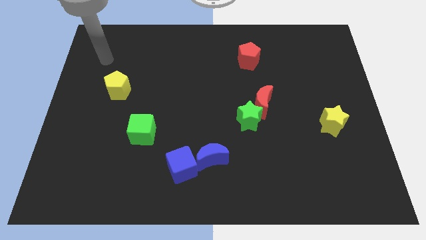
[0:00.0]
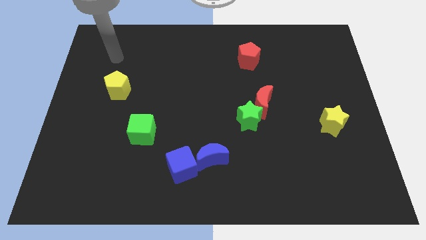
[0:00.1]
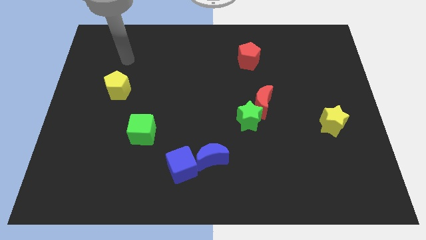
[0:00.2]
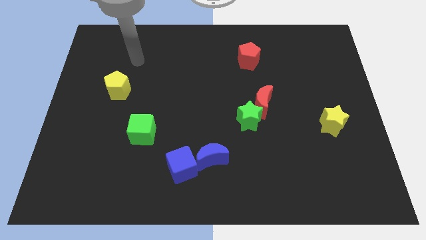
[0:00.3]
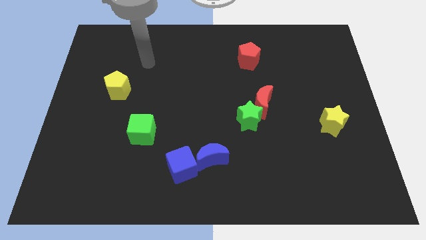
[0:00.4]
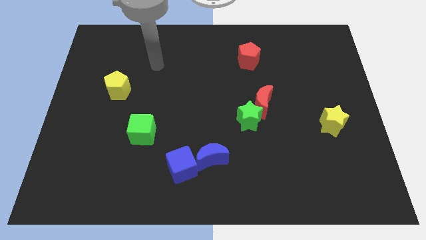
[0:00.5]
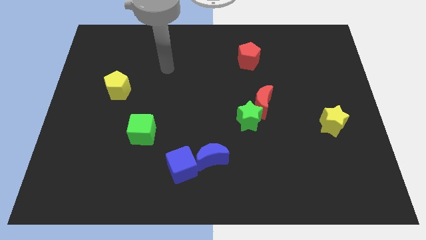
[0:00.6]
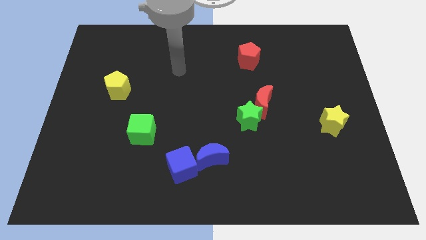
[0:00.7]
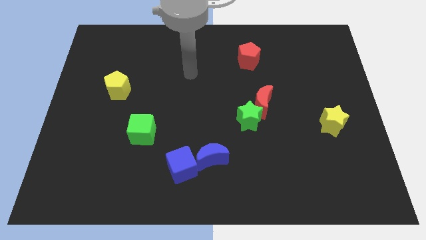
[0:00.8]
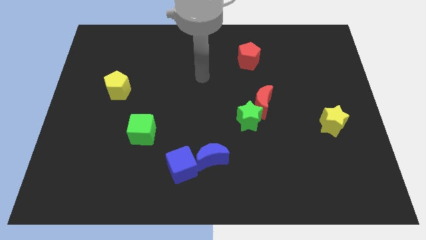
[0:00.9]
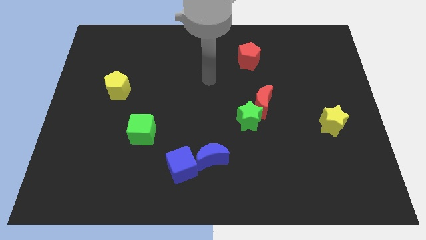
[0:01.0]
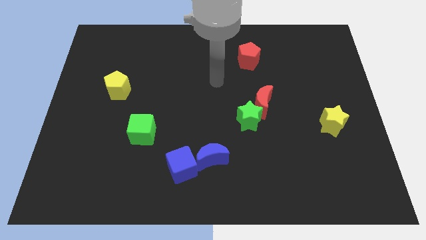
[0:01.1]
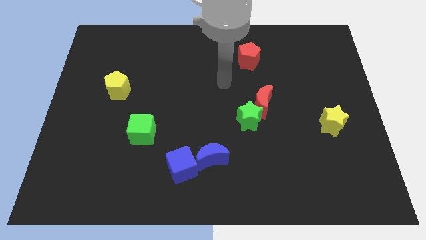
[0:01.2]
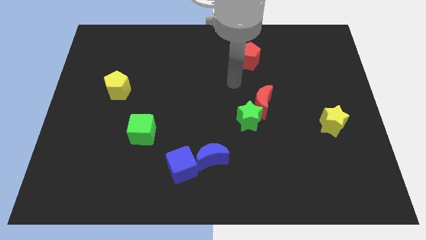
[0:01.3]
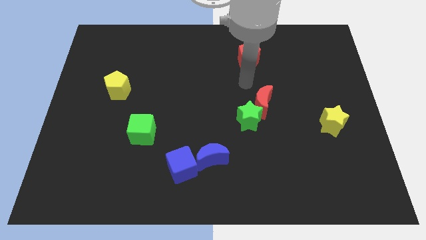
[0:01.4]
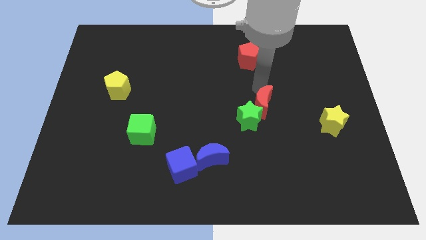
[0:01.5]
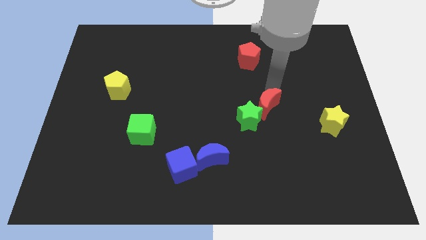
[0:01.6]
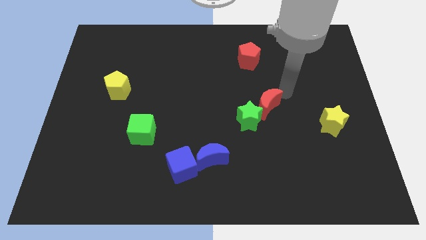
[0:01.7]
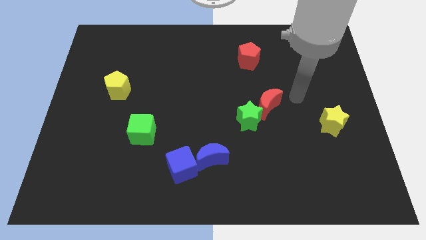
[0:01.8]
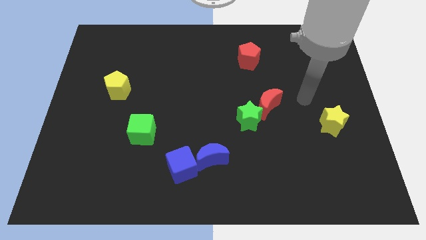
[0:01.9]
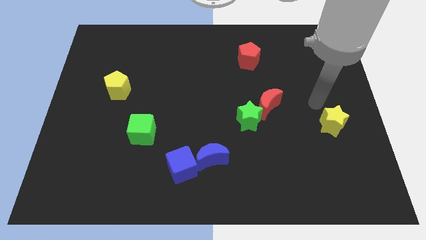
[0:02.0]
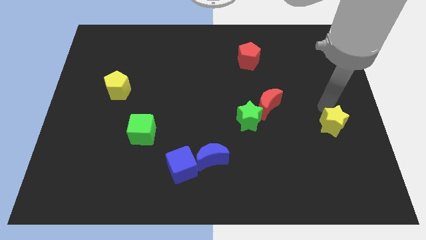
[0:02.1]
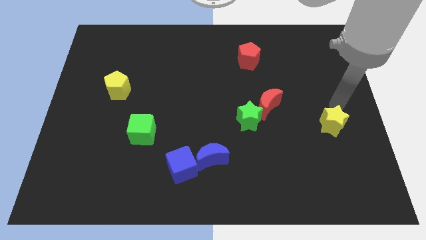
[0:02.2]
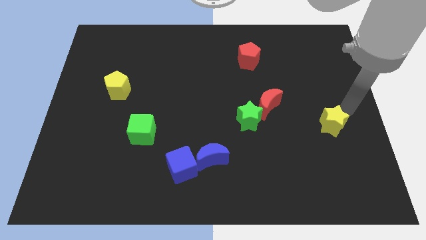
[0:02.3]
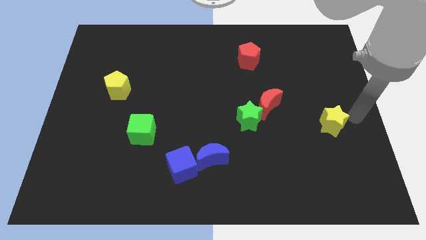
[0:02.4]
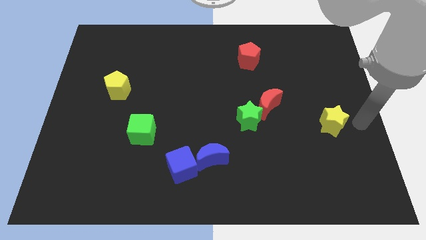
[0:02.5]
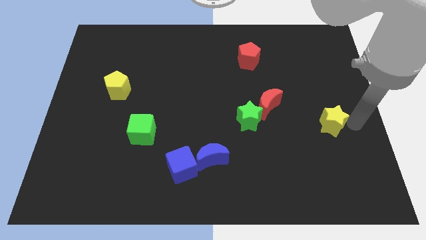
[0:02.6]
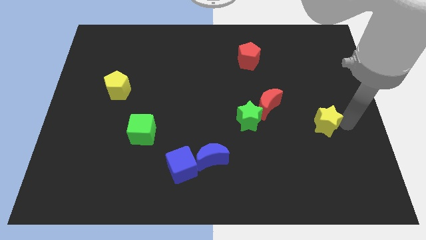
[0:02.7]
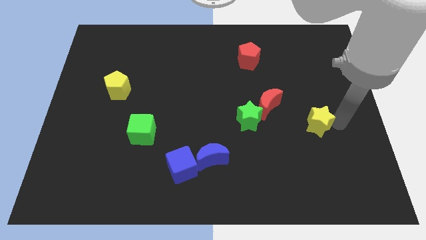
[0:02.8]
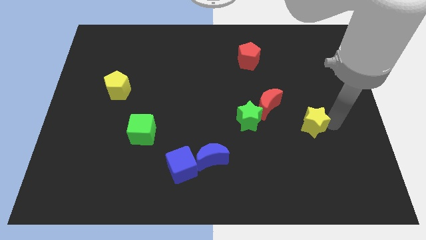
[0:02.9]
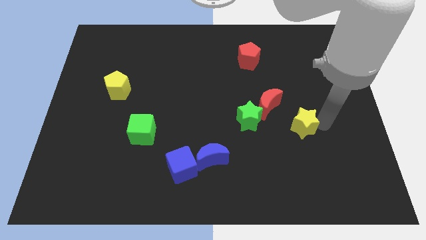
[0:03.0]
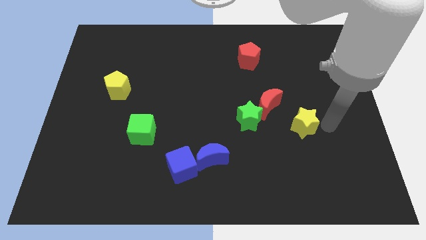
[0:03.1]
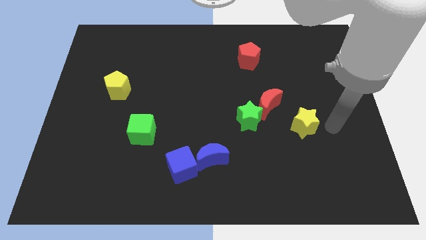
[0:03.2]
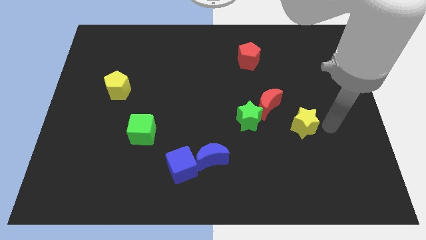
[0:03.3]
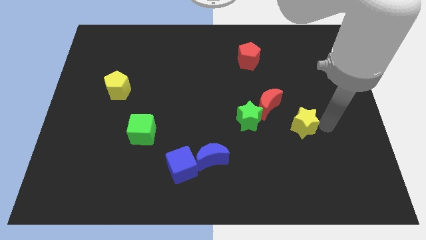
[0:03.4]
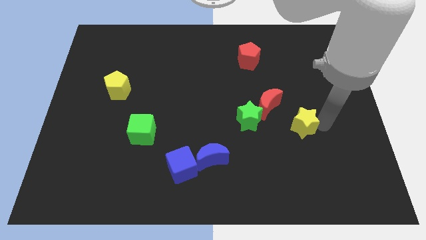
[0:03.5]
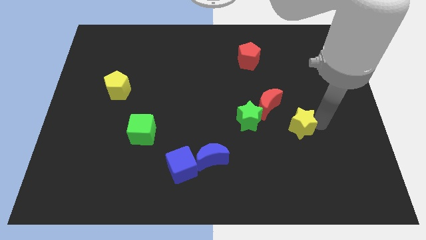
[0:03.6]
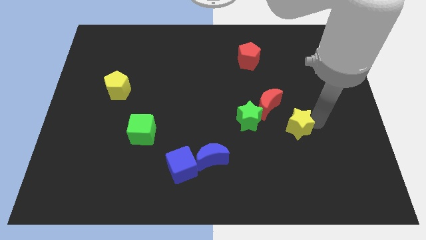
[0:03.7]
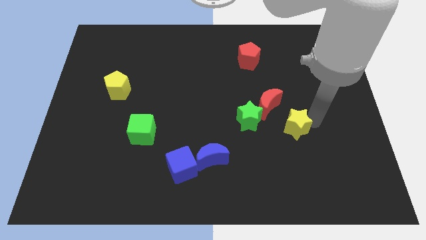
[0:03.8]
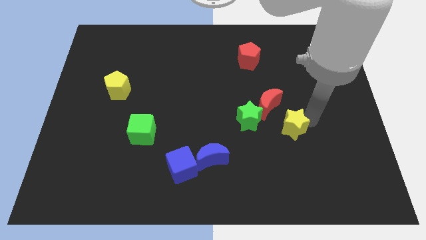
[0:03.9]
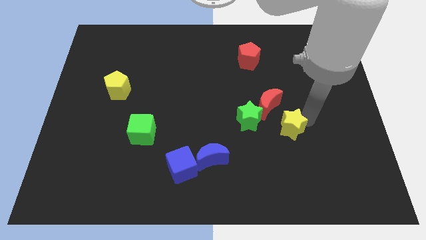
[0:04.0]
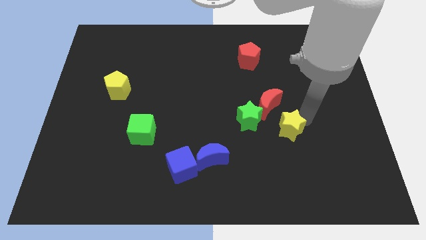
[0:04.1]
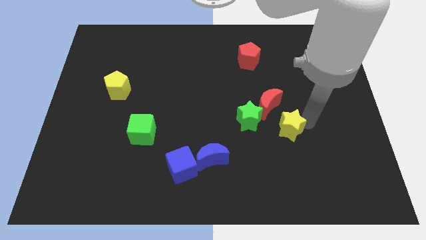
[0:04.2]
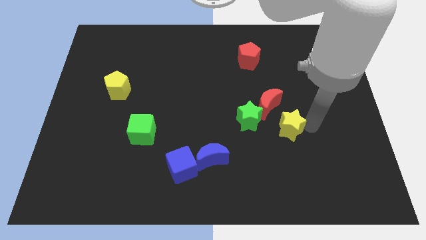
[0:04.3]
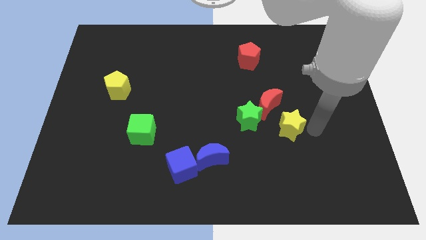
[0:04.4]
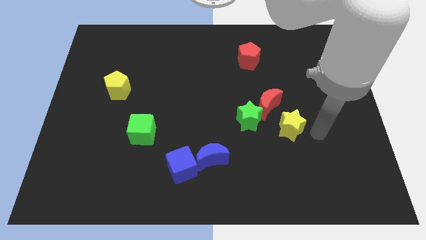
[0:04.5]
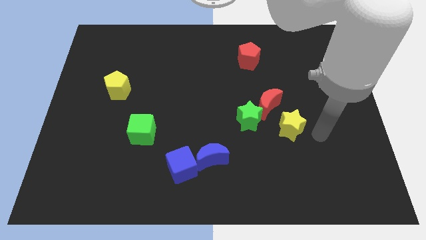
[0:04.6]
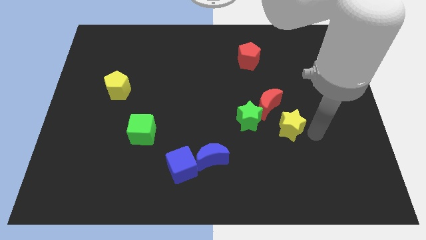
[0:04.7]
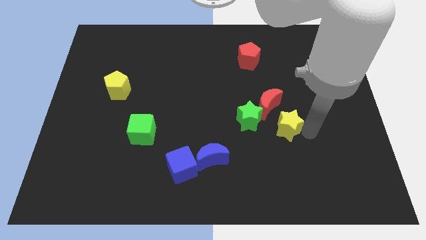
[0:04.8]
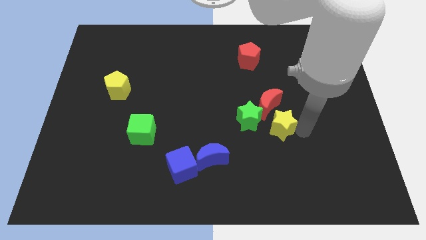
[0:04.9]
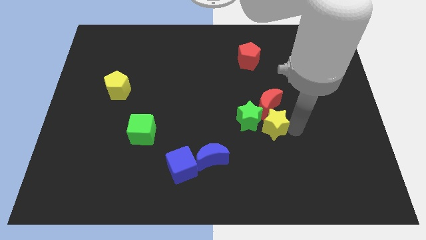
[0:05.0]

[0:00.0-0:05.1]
put the yellow star close to the green star

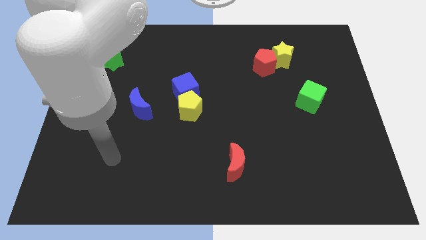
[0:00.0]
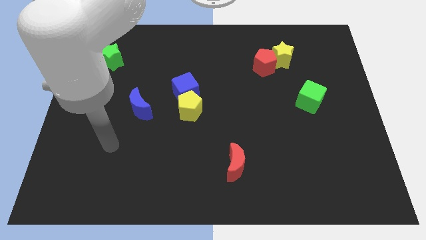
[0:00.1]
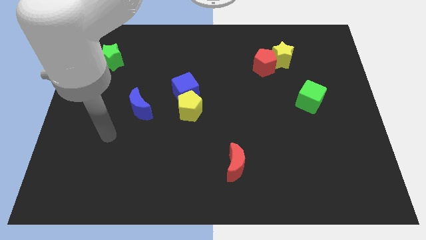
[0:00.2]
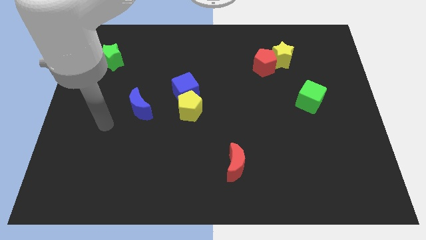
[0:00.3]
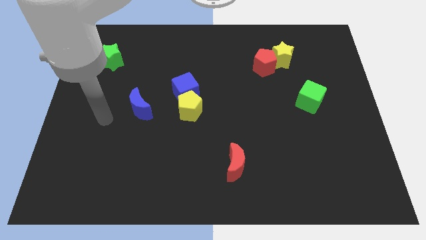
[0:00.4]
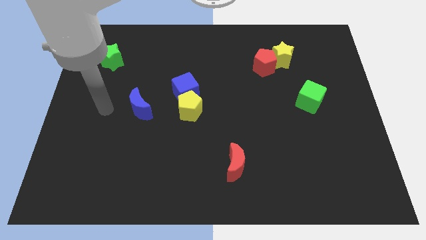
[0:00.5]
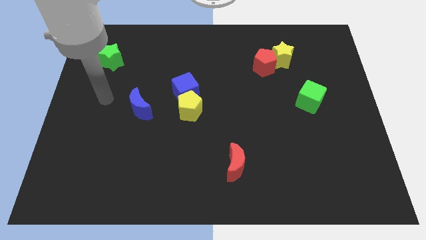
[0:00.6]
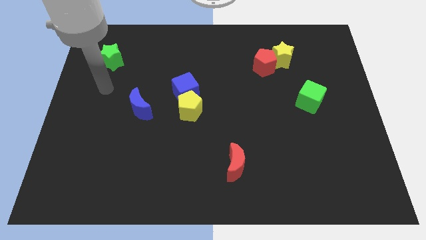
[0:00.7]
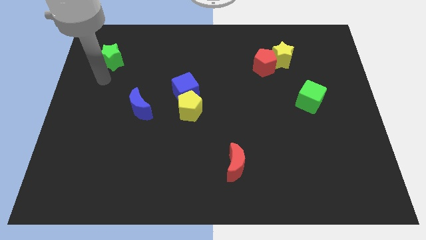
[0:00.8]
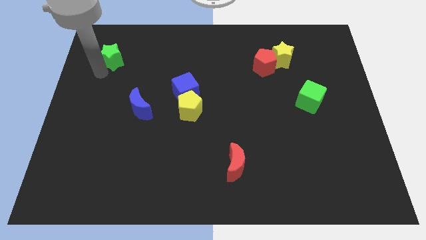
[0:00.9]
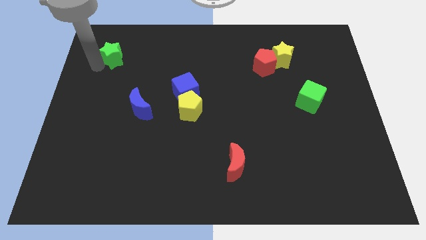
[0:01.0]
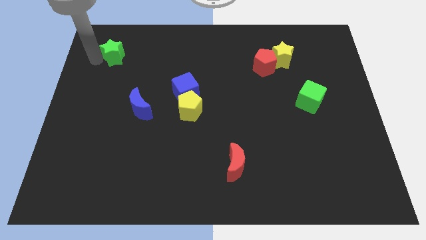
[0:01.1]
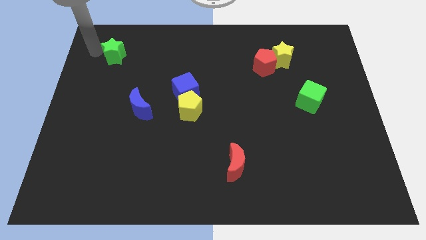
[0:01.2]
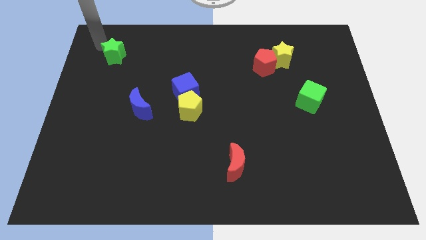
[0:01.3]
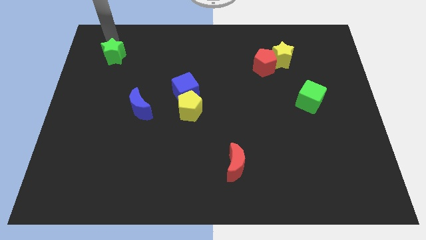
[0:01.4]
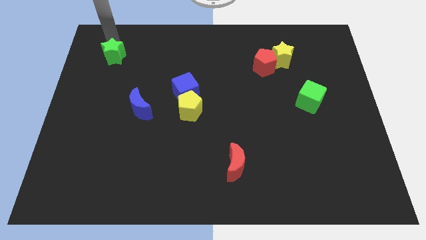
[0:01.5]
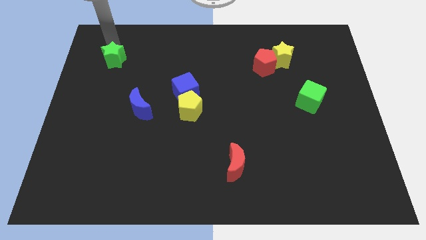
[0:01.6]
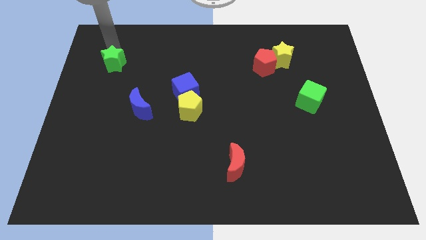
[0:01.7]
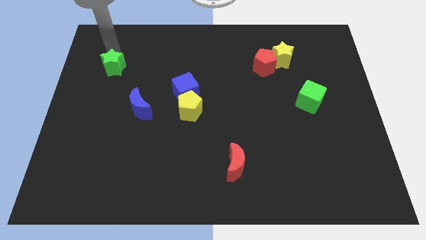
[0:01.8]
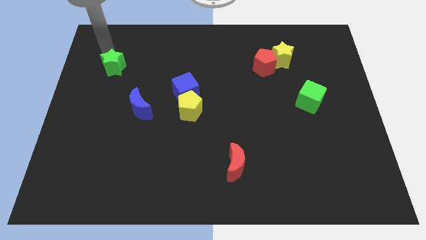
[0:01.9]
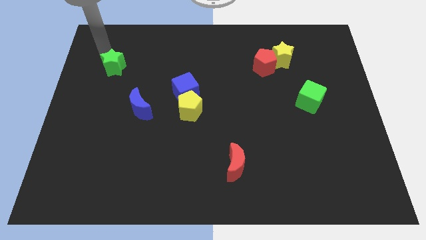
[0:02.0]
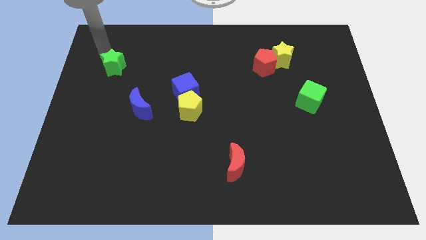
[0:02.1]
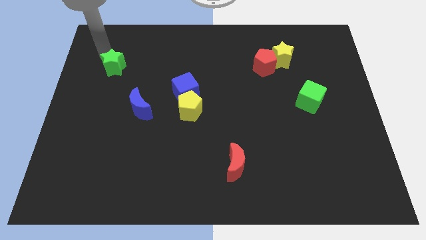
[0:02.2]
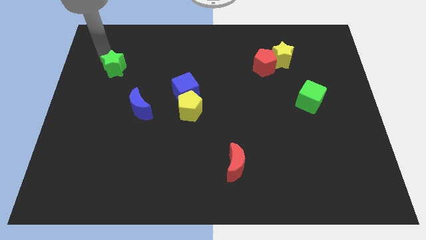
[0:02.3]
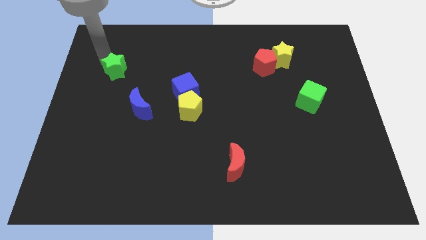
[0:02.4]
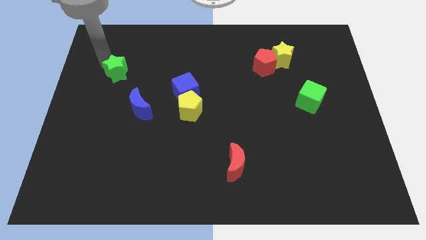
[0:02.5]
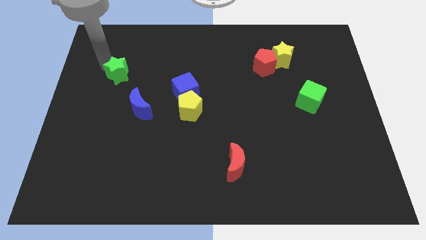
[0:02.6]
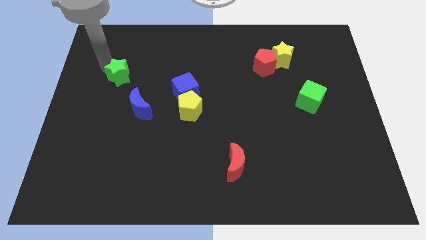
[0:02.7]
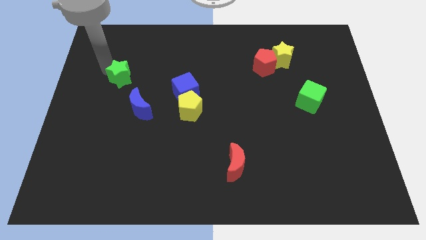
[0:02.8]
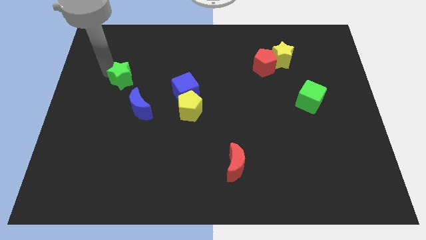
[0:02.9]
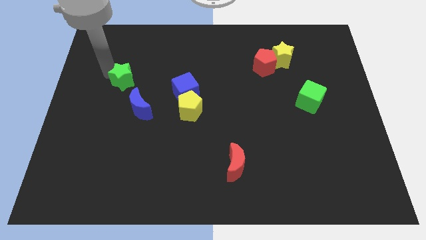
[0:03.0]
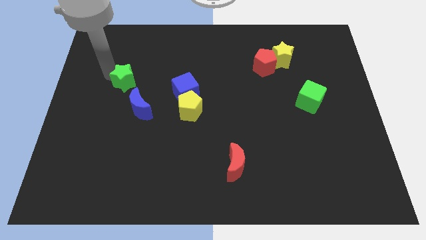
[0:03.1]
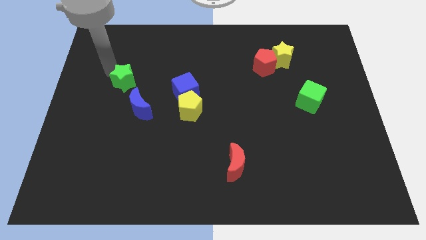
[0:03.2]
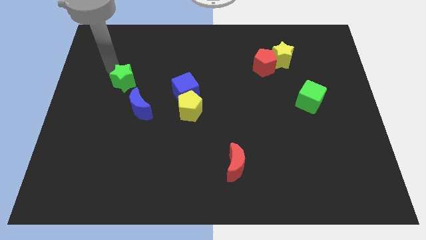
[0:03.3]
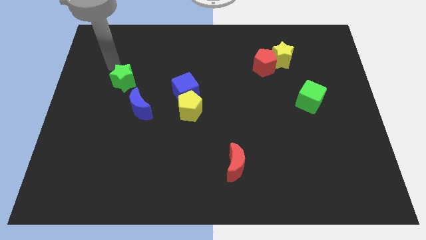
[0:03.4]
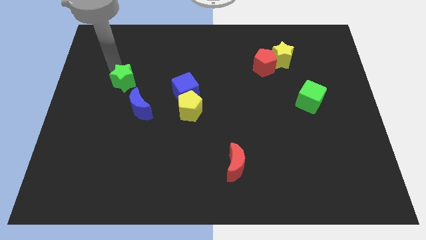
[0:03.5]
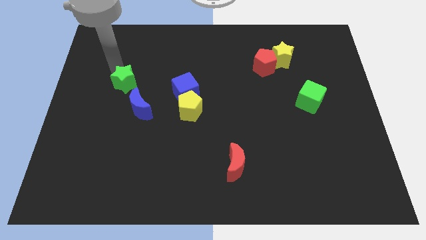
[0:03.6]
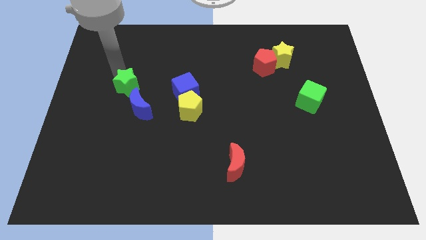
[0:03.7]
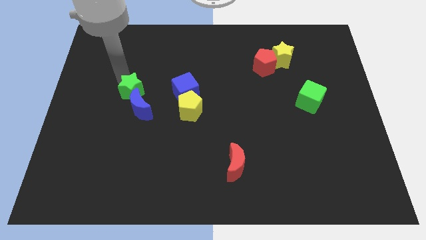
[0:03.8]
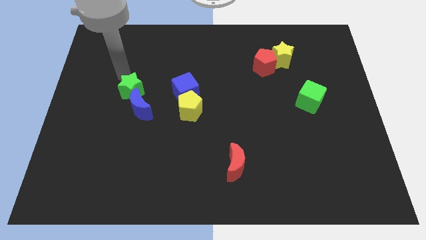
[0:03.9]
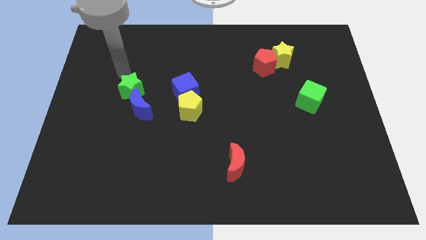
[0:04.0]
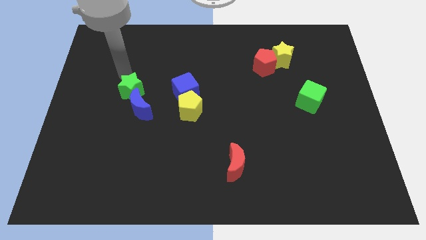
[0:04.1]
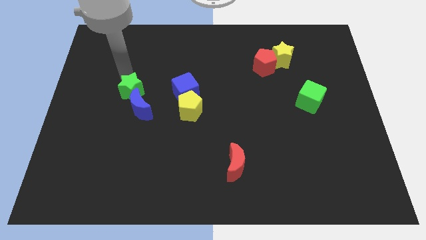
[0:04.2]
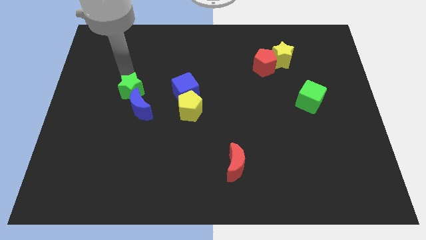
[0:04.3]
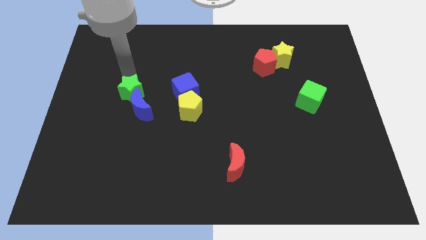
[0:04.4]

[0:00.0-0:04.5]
slide the green star close to the blue moon
